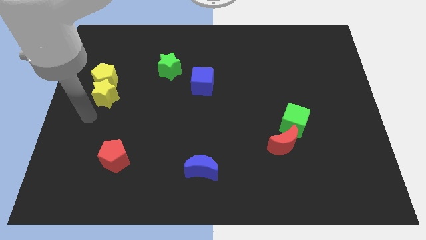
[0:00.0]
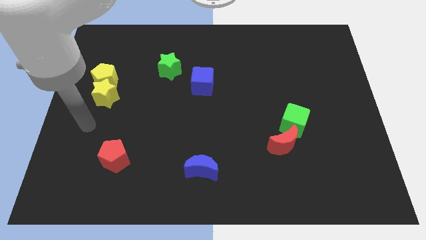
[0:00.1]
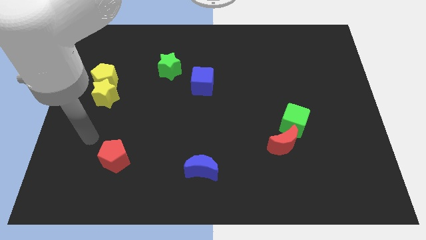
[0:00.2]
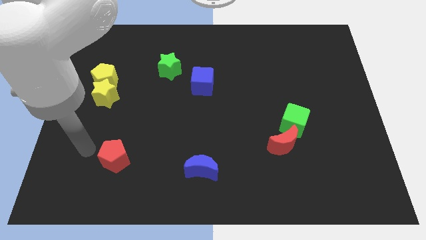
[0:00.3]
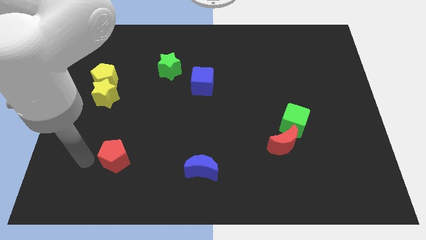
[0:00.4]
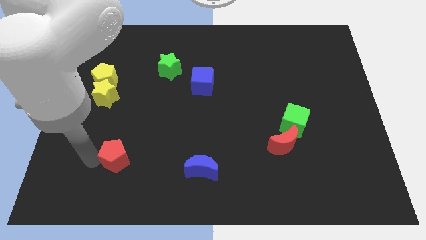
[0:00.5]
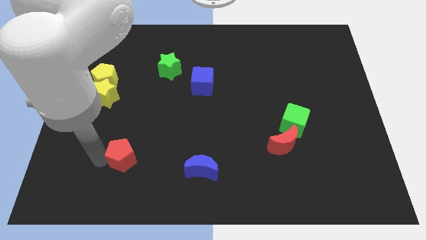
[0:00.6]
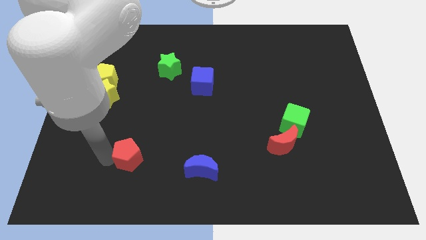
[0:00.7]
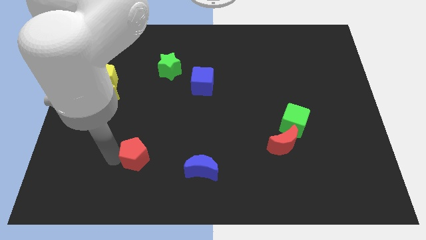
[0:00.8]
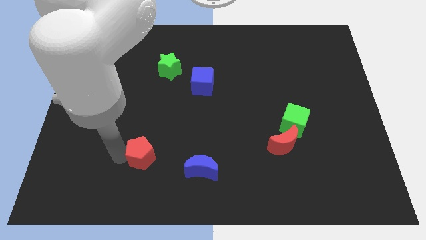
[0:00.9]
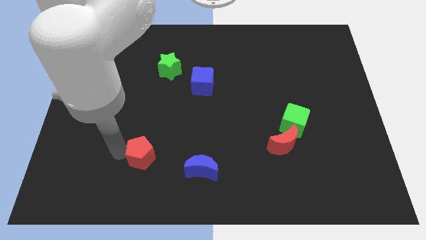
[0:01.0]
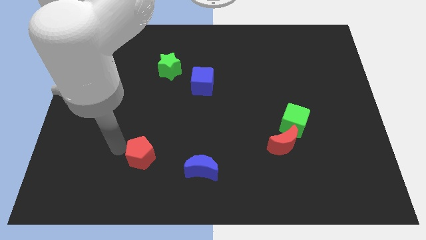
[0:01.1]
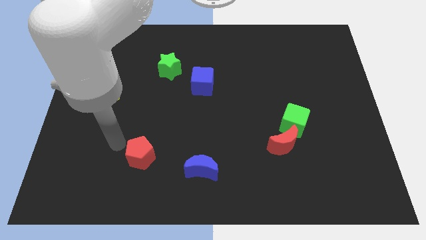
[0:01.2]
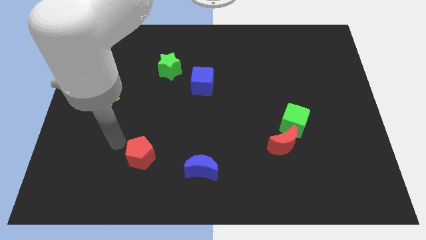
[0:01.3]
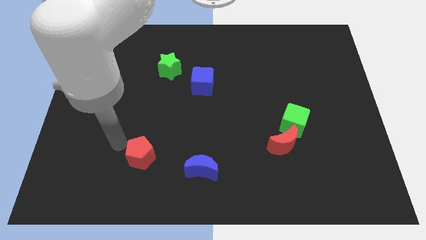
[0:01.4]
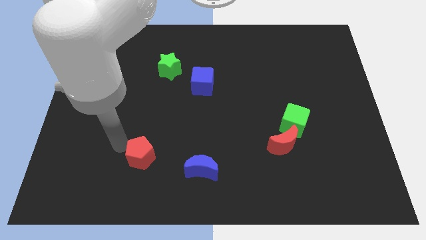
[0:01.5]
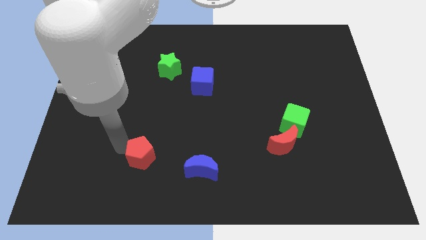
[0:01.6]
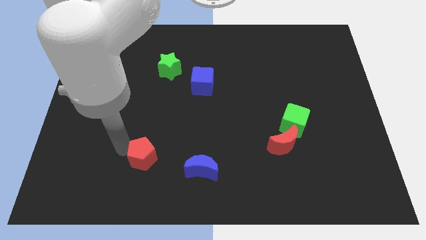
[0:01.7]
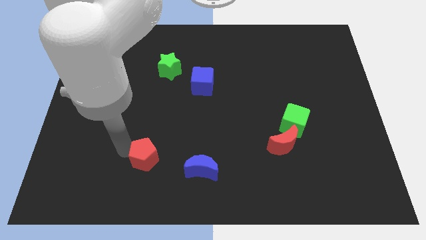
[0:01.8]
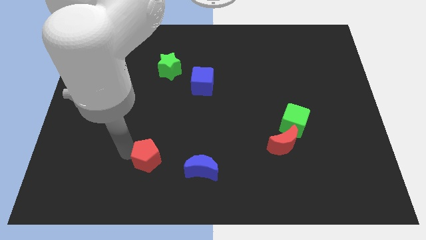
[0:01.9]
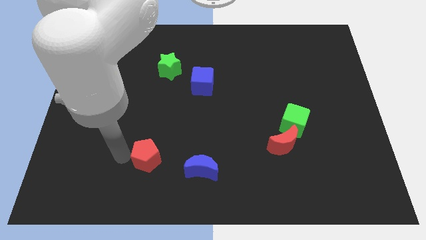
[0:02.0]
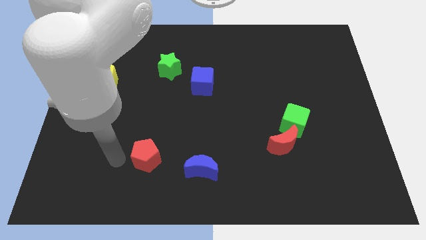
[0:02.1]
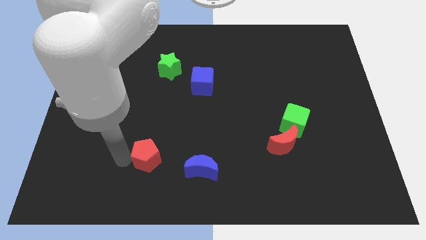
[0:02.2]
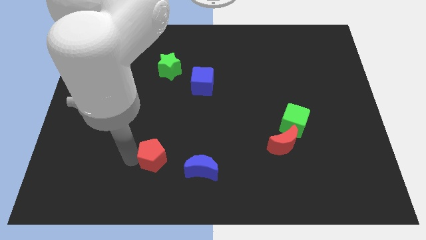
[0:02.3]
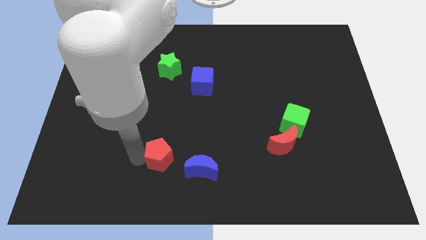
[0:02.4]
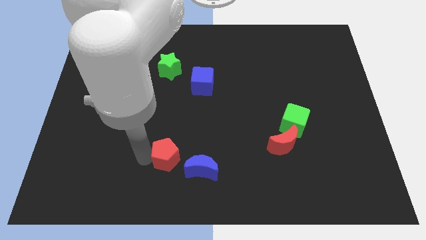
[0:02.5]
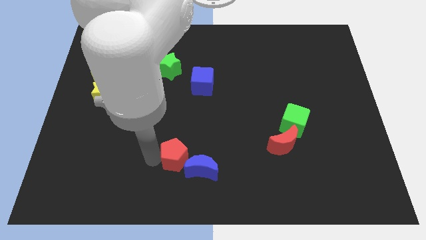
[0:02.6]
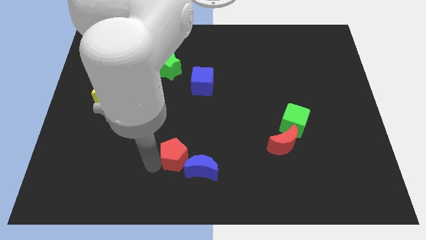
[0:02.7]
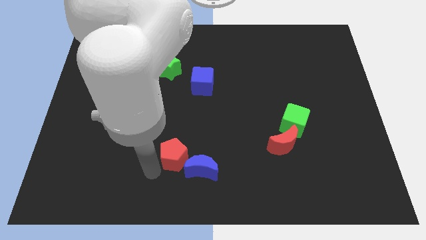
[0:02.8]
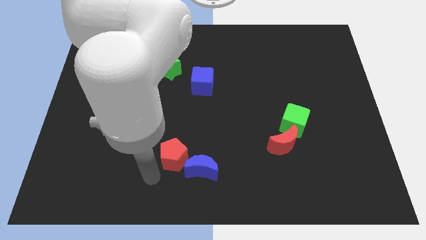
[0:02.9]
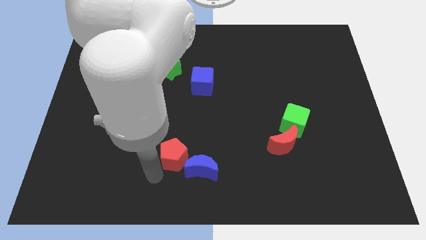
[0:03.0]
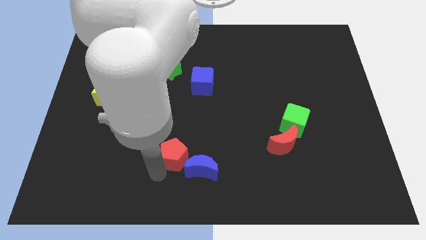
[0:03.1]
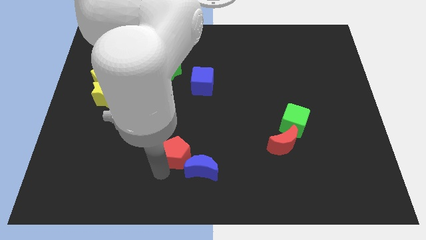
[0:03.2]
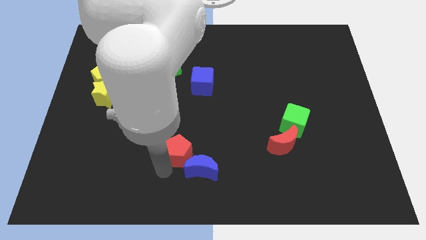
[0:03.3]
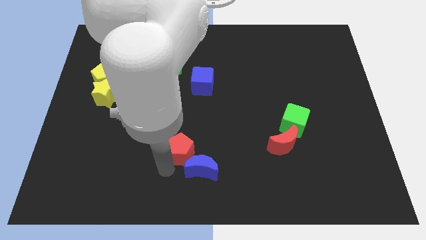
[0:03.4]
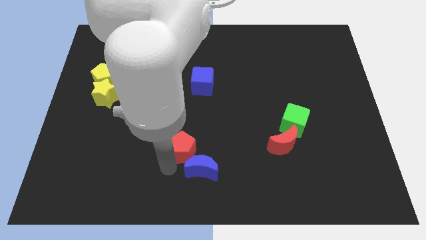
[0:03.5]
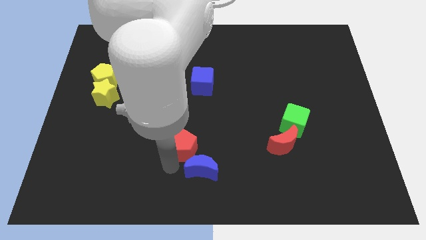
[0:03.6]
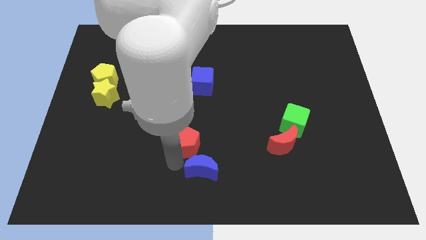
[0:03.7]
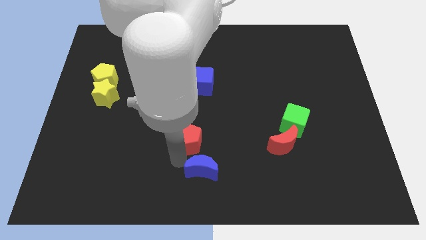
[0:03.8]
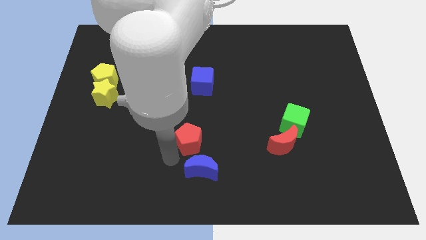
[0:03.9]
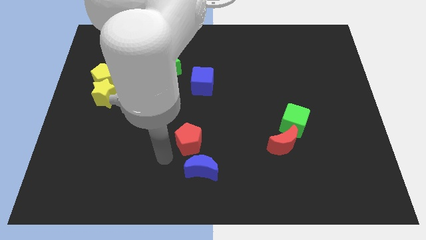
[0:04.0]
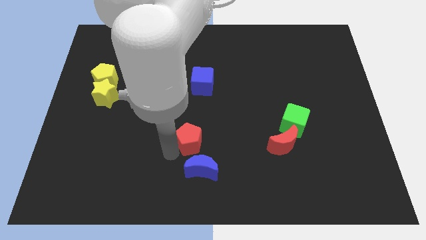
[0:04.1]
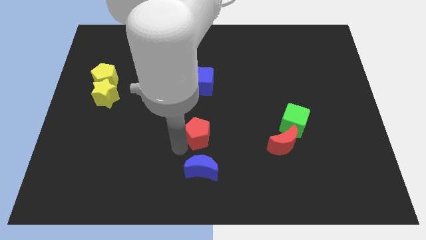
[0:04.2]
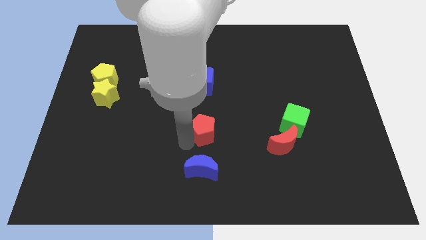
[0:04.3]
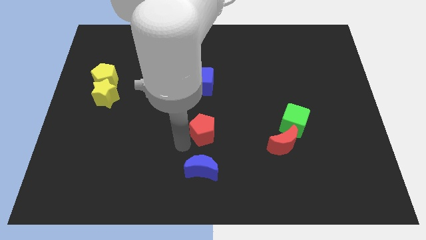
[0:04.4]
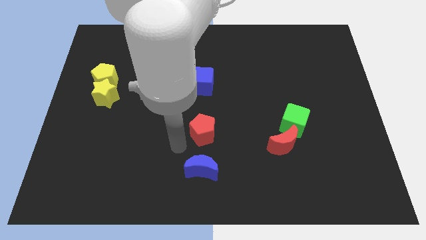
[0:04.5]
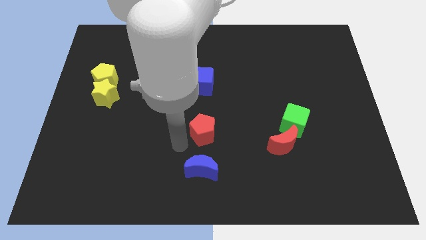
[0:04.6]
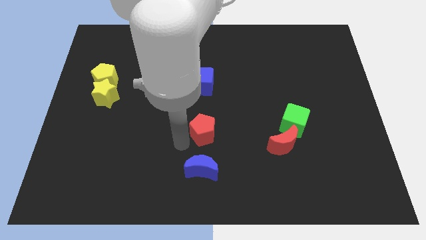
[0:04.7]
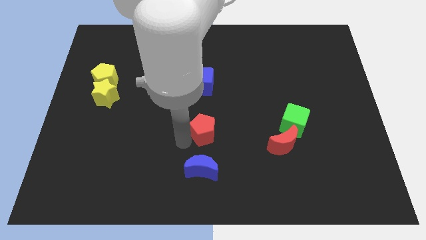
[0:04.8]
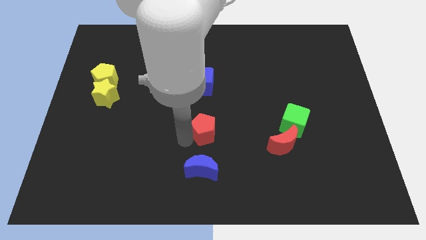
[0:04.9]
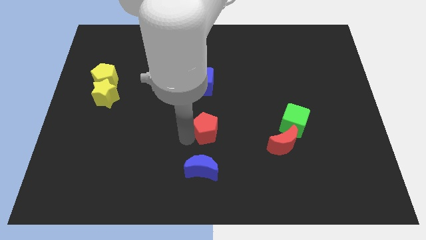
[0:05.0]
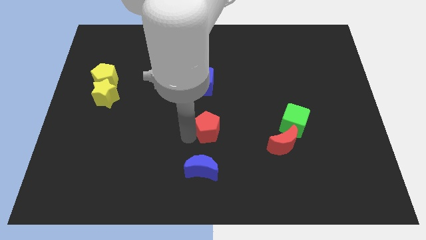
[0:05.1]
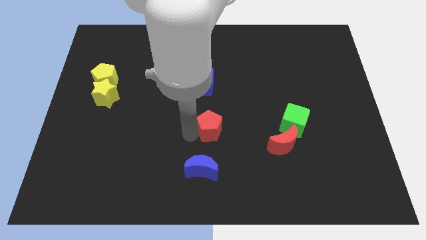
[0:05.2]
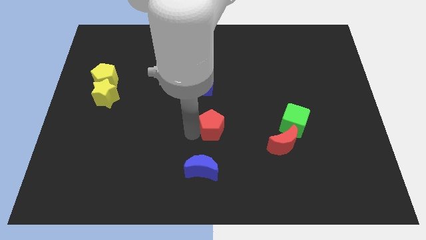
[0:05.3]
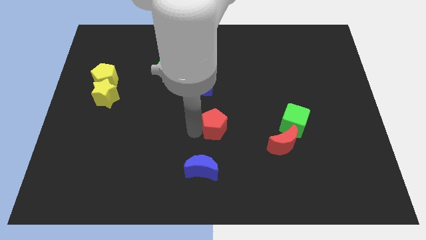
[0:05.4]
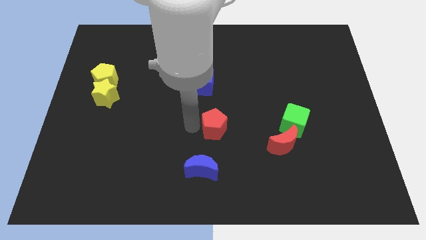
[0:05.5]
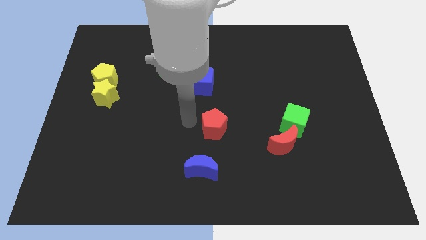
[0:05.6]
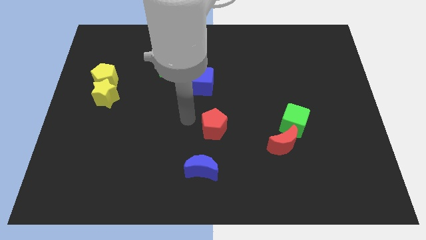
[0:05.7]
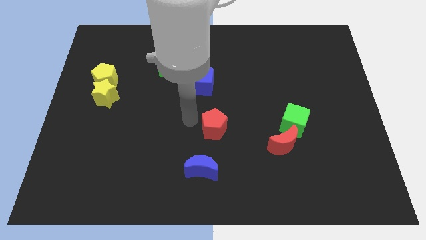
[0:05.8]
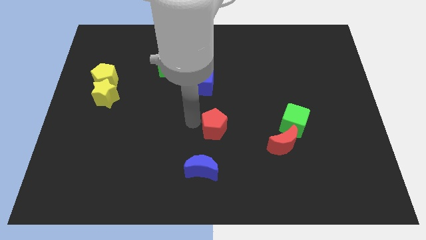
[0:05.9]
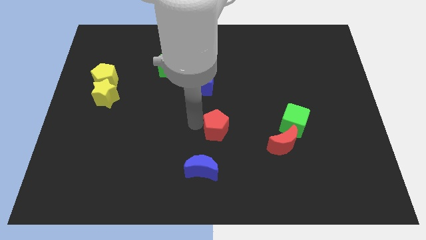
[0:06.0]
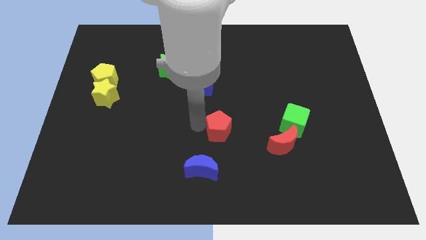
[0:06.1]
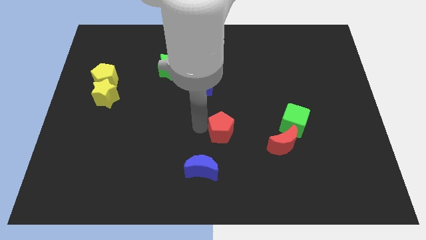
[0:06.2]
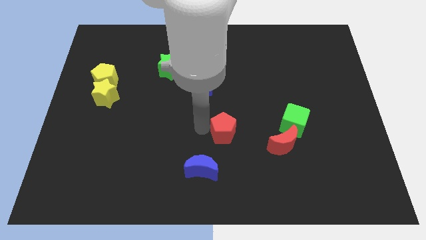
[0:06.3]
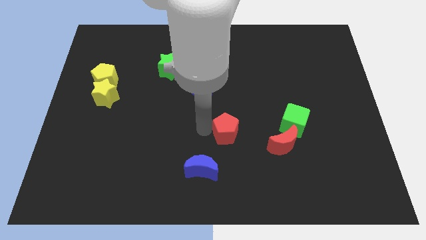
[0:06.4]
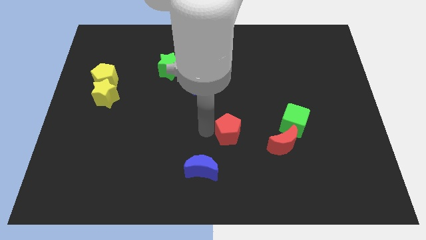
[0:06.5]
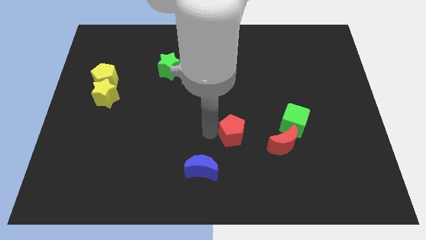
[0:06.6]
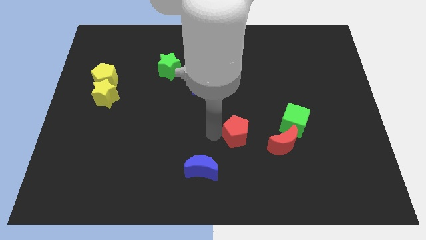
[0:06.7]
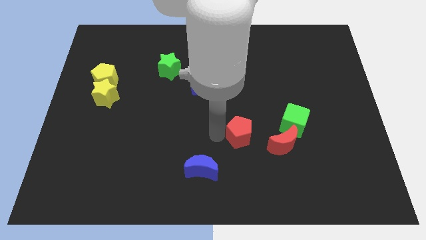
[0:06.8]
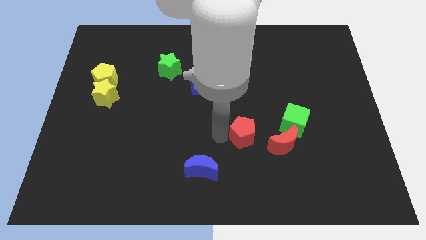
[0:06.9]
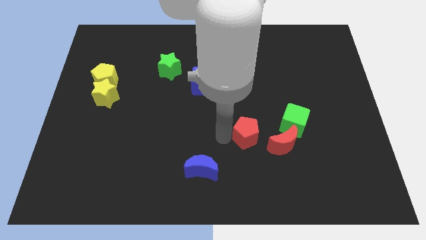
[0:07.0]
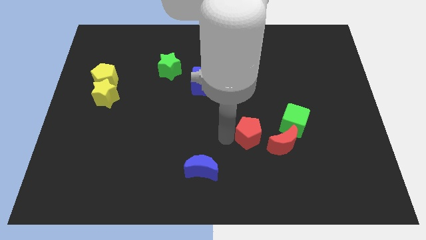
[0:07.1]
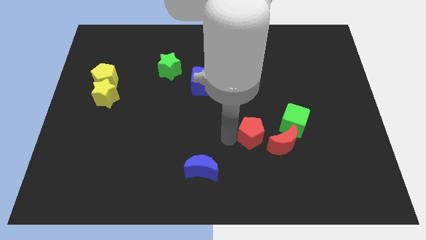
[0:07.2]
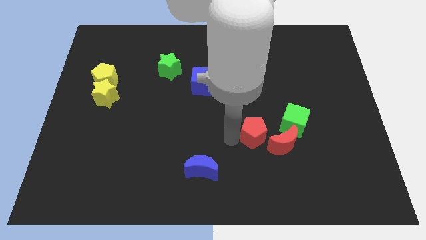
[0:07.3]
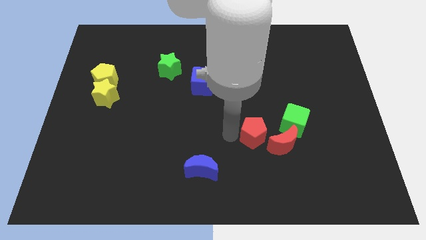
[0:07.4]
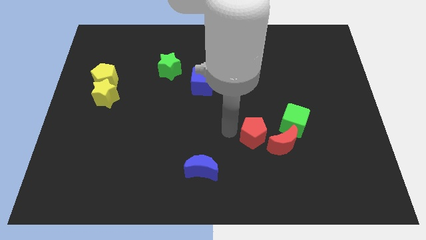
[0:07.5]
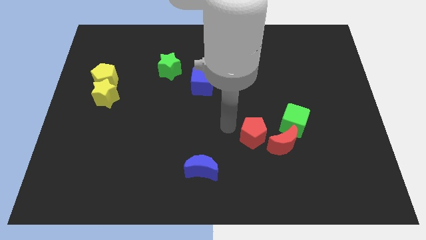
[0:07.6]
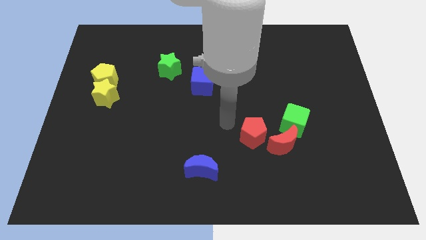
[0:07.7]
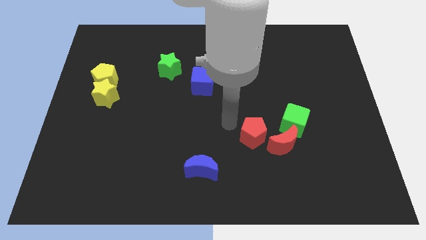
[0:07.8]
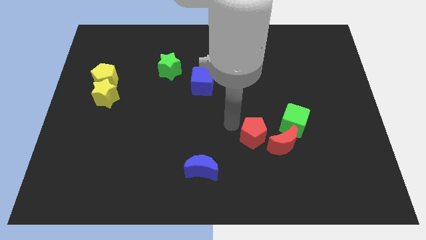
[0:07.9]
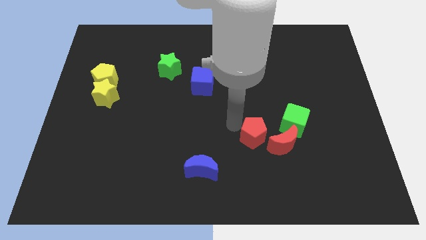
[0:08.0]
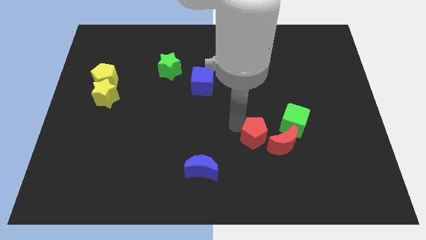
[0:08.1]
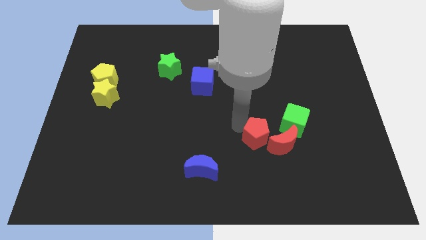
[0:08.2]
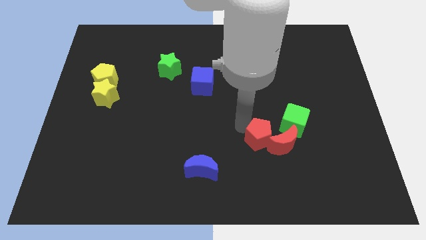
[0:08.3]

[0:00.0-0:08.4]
move the red pentagon to the red moon
